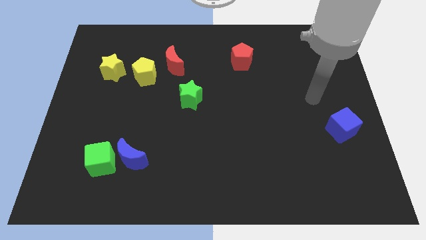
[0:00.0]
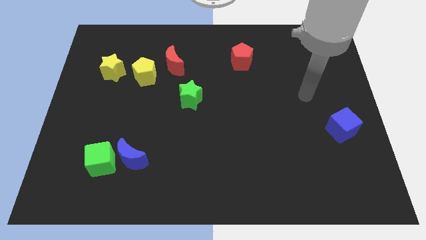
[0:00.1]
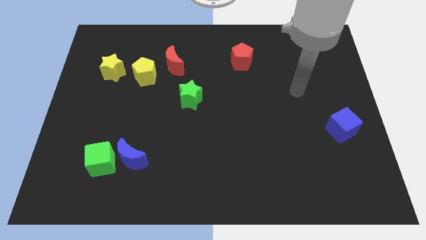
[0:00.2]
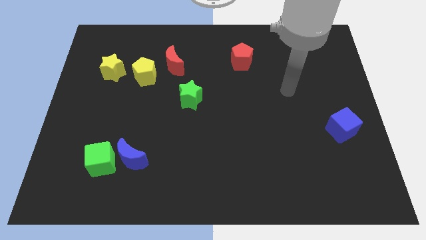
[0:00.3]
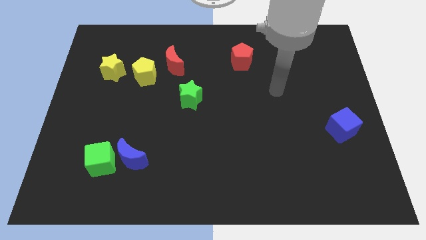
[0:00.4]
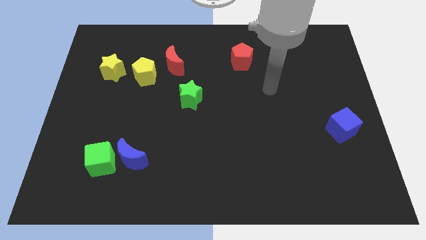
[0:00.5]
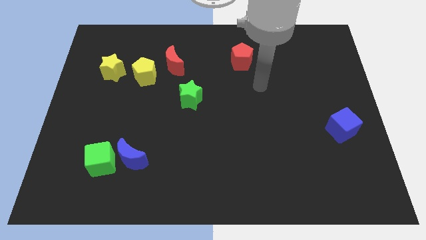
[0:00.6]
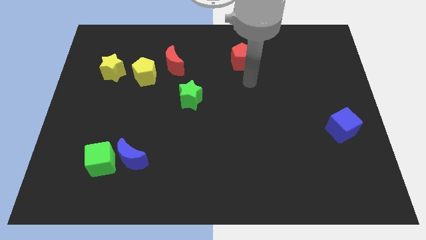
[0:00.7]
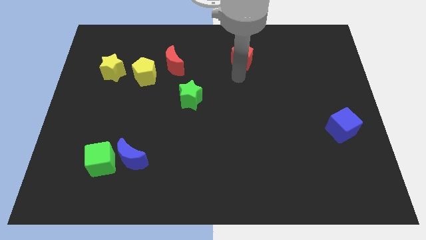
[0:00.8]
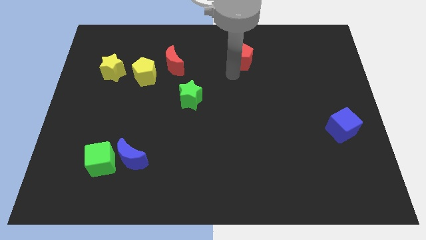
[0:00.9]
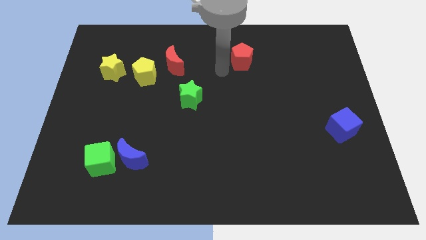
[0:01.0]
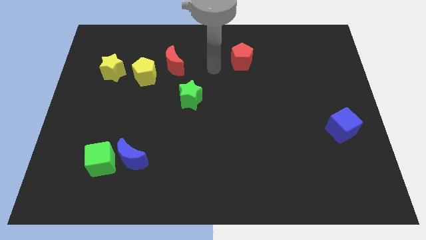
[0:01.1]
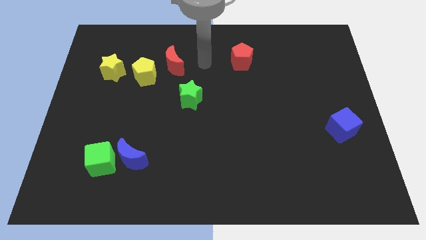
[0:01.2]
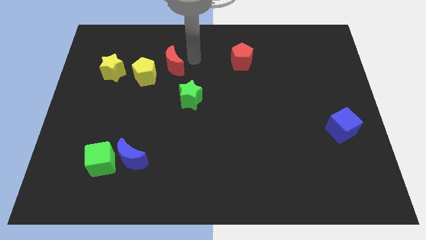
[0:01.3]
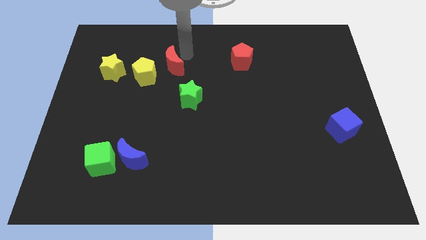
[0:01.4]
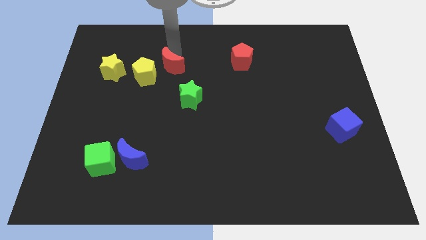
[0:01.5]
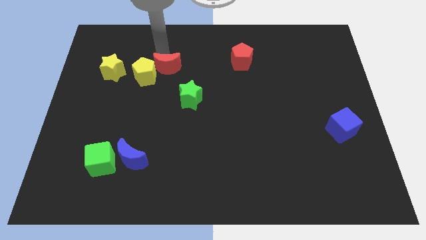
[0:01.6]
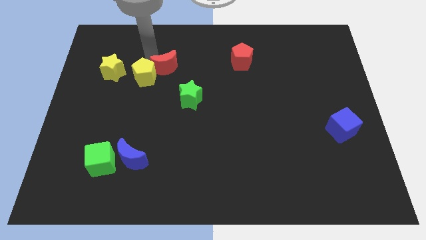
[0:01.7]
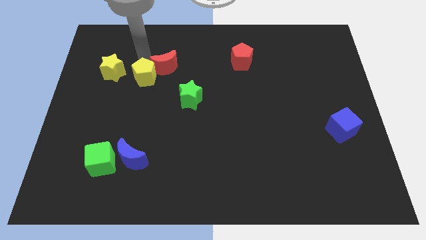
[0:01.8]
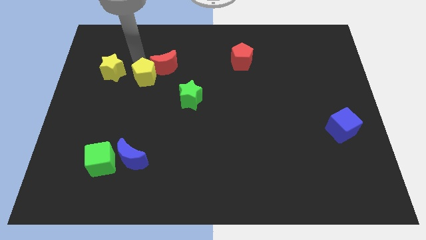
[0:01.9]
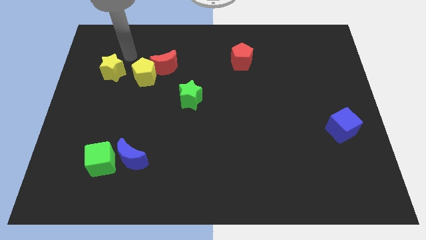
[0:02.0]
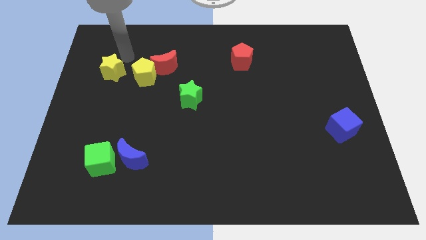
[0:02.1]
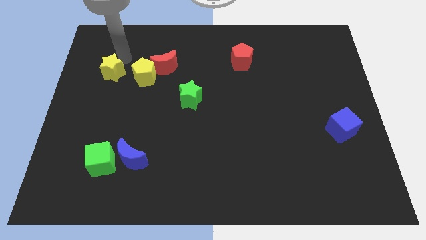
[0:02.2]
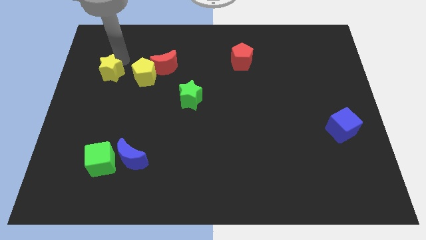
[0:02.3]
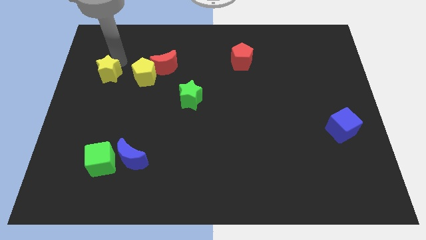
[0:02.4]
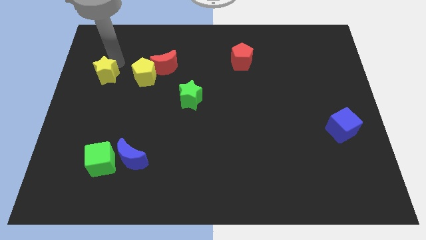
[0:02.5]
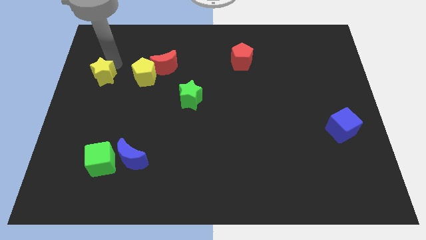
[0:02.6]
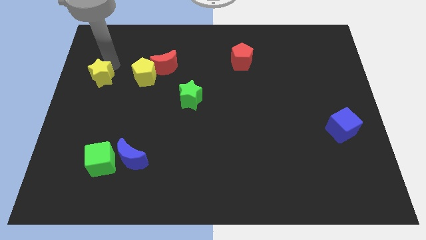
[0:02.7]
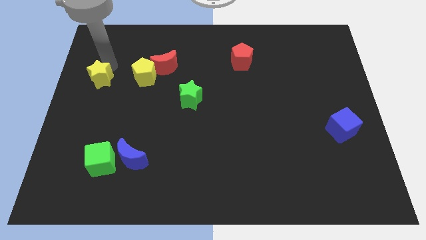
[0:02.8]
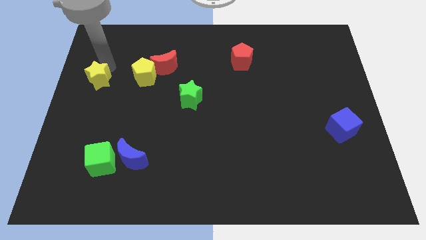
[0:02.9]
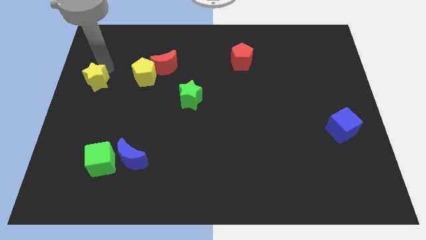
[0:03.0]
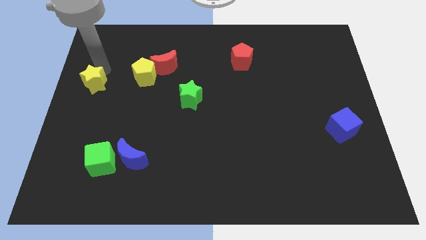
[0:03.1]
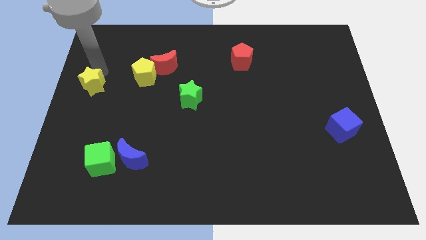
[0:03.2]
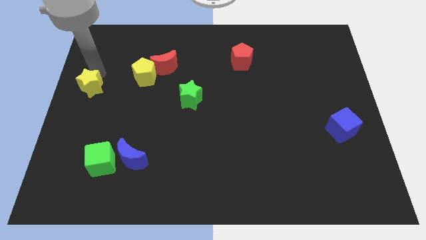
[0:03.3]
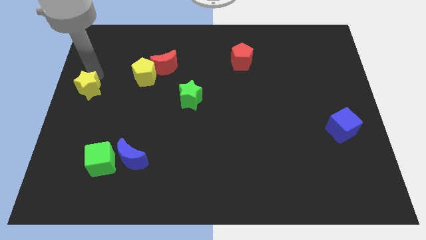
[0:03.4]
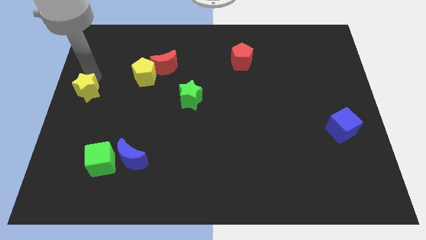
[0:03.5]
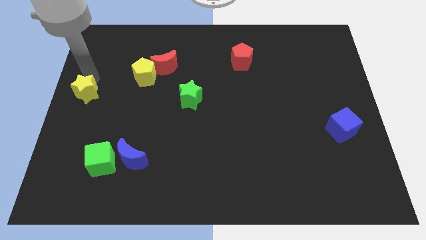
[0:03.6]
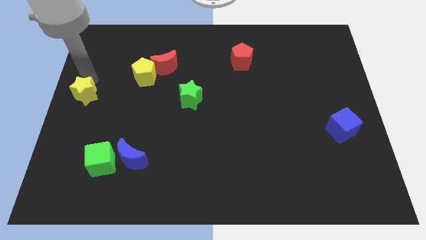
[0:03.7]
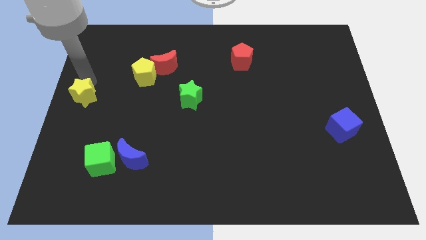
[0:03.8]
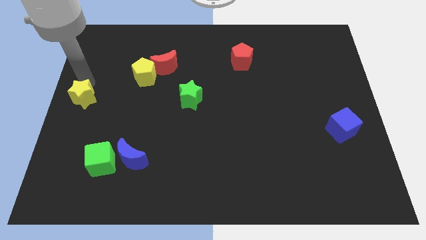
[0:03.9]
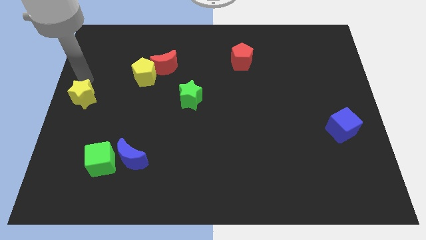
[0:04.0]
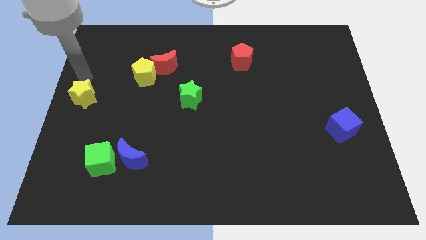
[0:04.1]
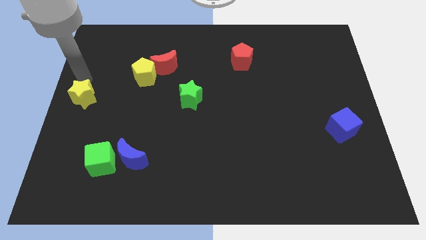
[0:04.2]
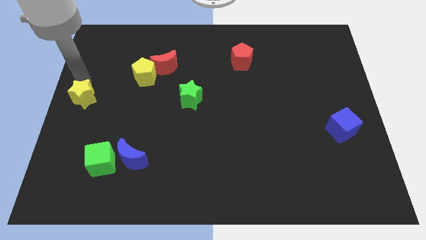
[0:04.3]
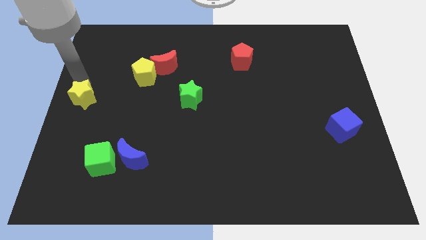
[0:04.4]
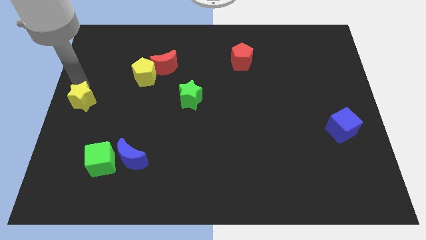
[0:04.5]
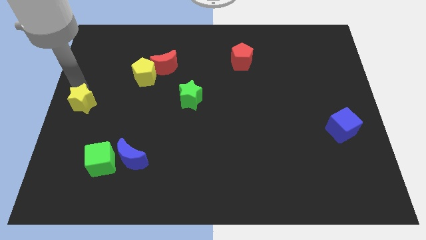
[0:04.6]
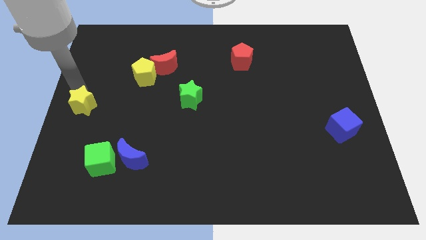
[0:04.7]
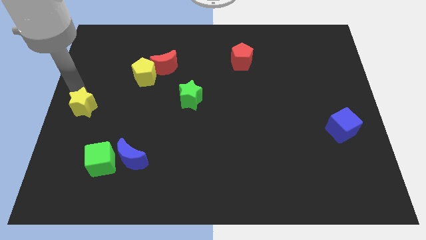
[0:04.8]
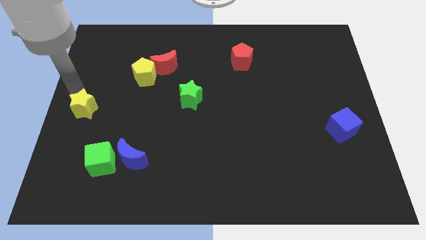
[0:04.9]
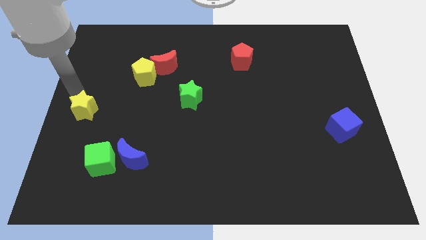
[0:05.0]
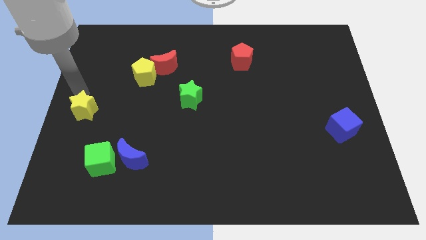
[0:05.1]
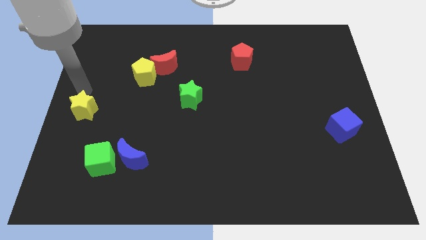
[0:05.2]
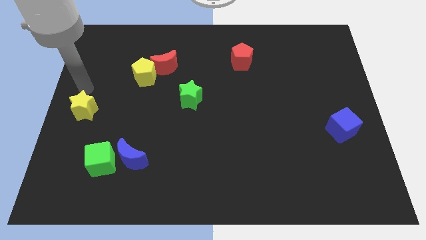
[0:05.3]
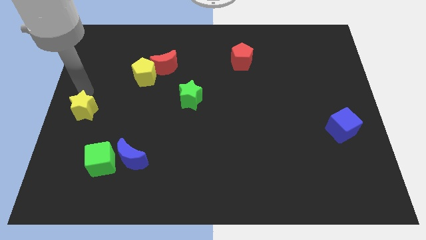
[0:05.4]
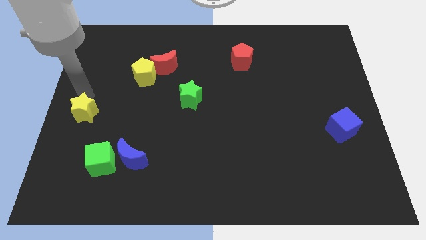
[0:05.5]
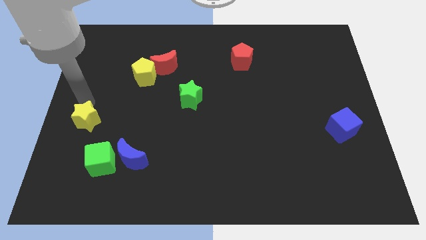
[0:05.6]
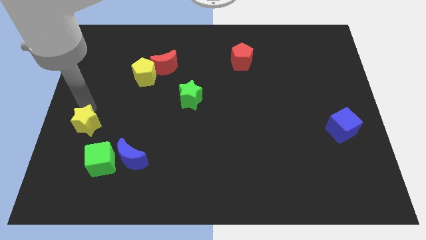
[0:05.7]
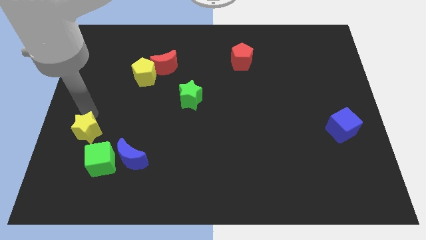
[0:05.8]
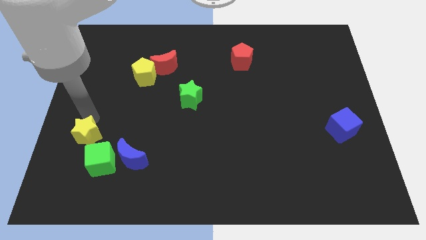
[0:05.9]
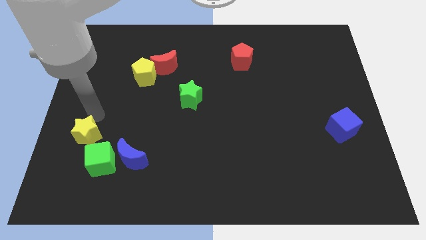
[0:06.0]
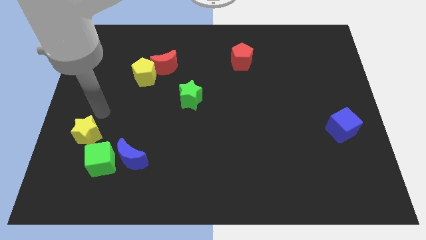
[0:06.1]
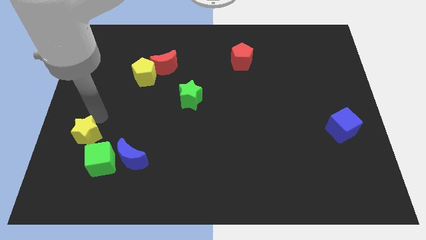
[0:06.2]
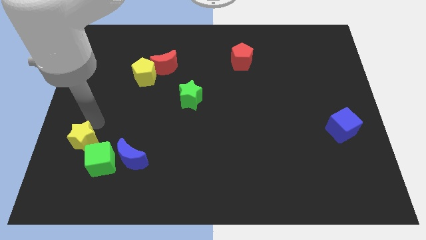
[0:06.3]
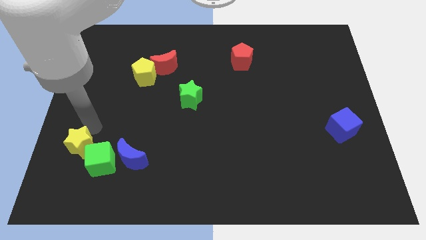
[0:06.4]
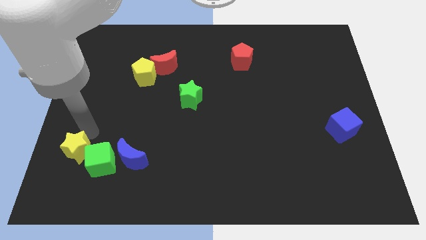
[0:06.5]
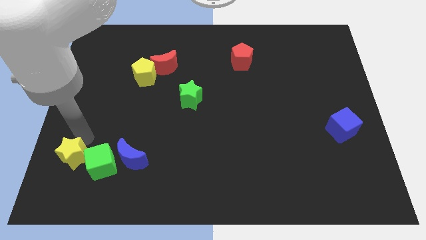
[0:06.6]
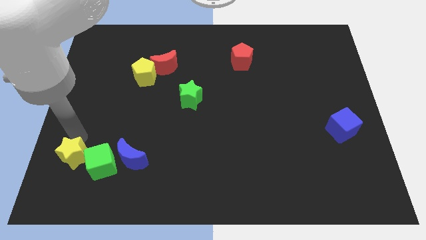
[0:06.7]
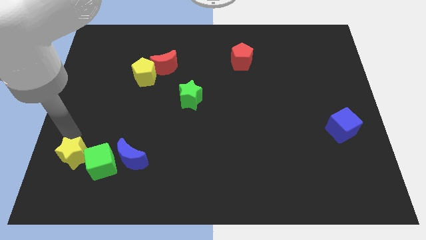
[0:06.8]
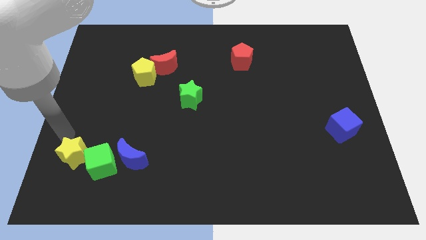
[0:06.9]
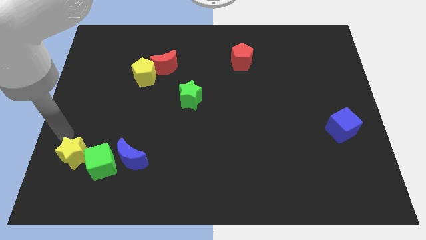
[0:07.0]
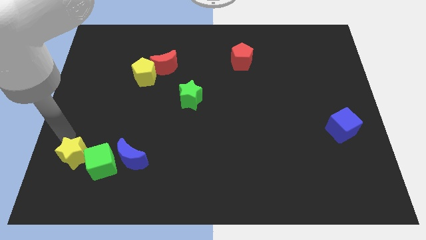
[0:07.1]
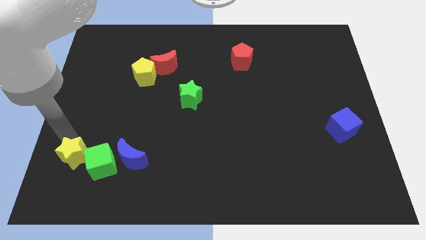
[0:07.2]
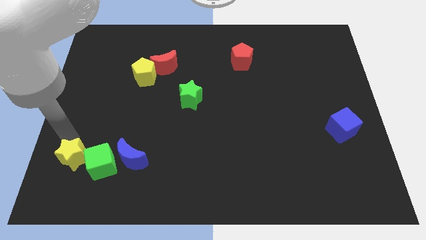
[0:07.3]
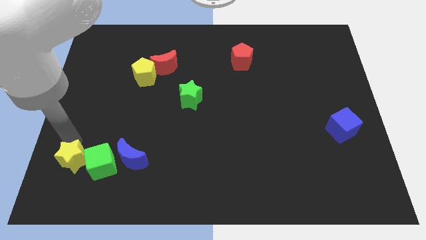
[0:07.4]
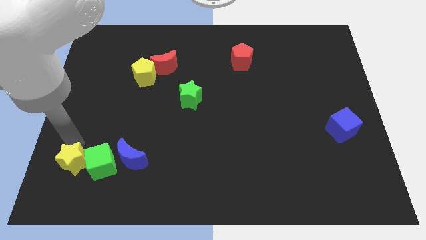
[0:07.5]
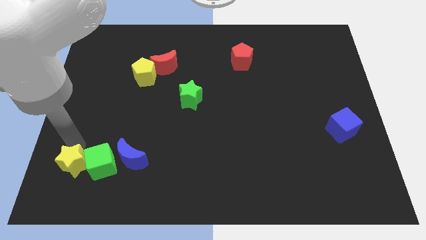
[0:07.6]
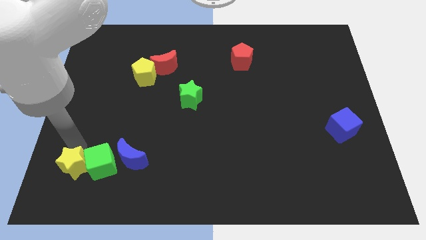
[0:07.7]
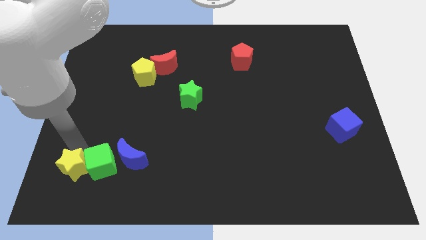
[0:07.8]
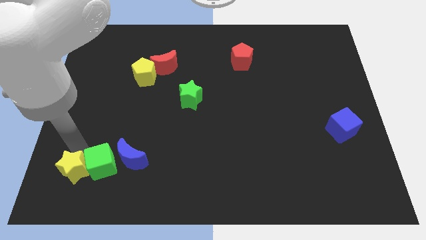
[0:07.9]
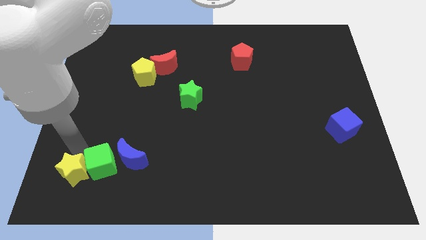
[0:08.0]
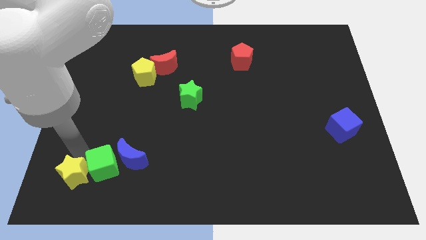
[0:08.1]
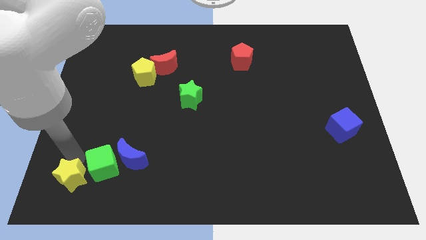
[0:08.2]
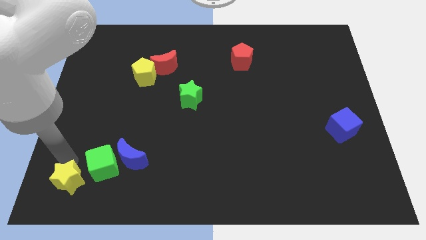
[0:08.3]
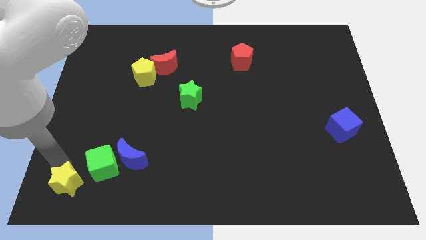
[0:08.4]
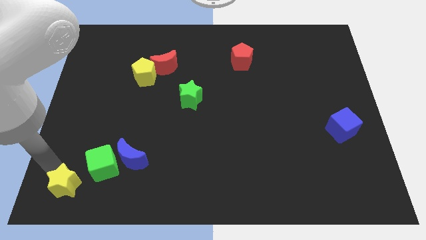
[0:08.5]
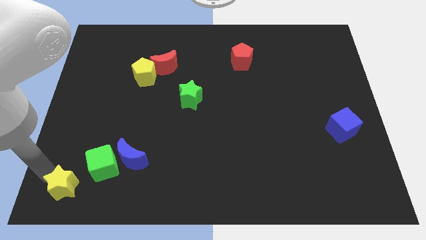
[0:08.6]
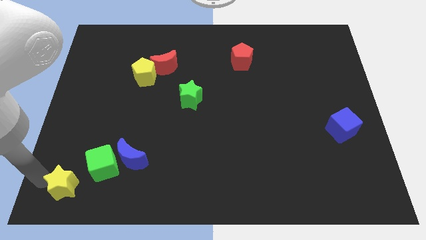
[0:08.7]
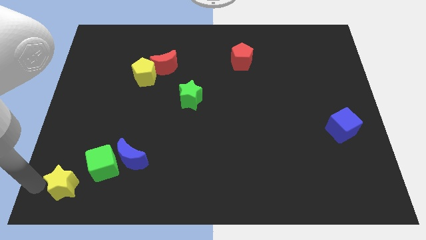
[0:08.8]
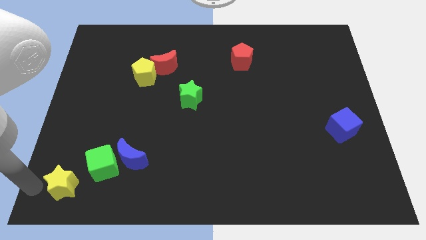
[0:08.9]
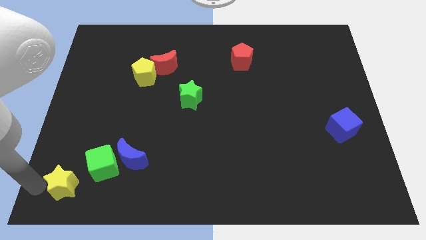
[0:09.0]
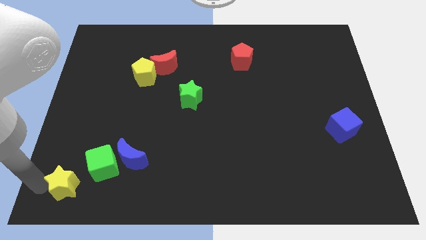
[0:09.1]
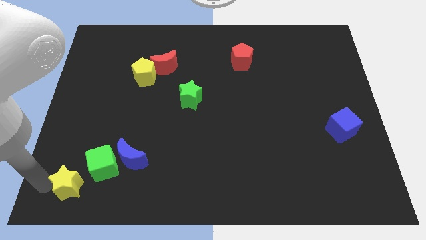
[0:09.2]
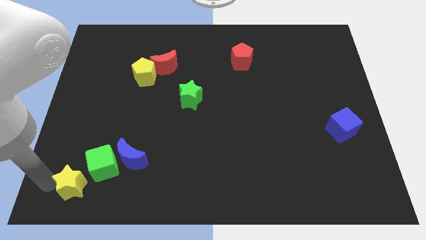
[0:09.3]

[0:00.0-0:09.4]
push the yellow star diagonally down and to the left of the blue moon
